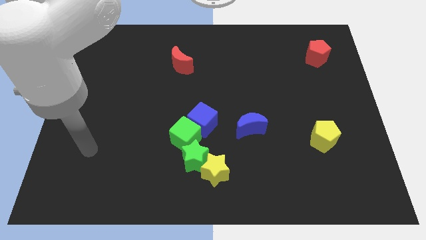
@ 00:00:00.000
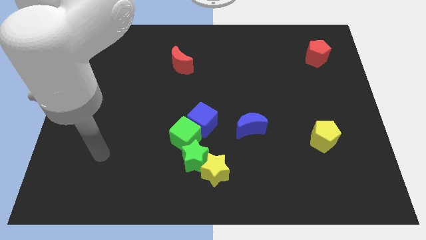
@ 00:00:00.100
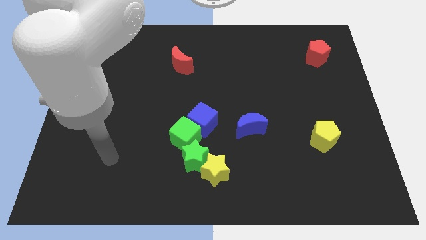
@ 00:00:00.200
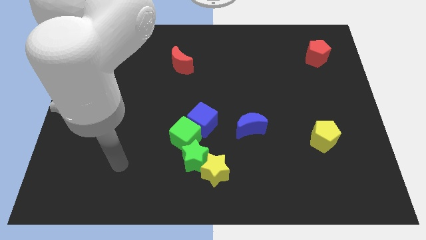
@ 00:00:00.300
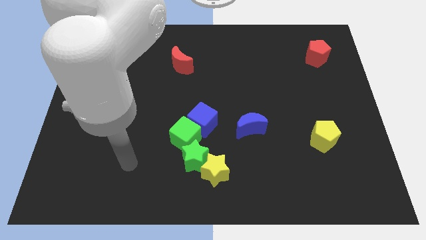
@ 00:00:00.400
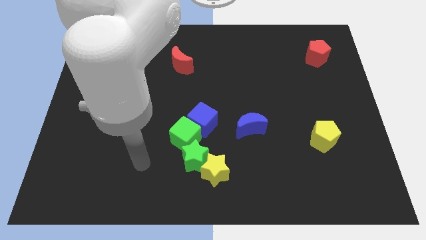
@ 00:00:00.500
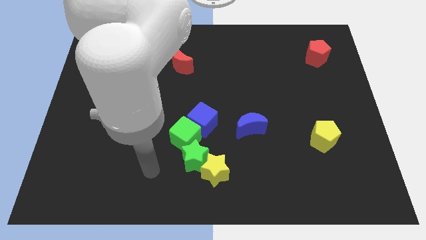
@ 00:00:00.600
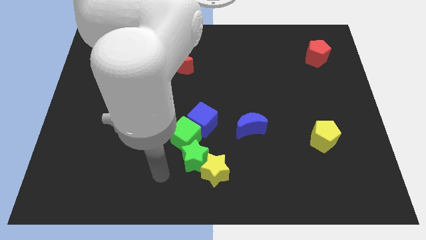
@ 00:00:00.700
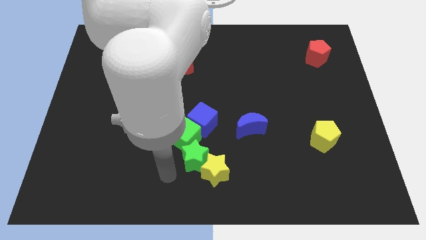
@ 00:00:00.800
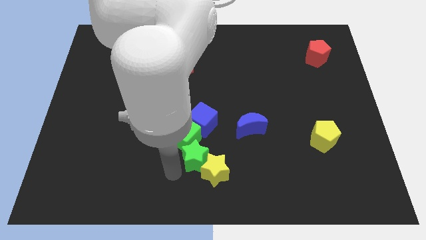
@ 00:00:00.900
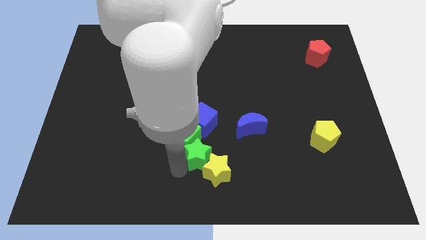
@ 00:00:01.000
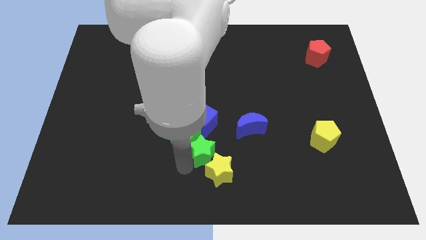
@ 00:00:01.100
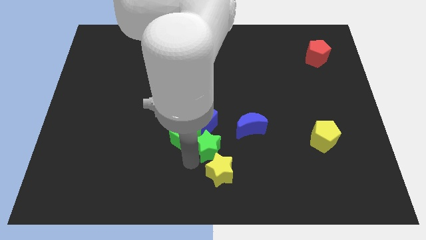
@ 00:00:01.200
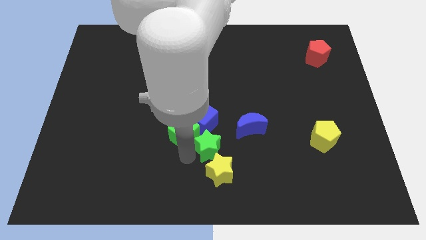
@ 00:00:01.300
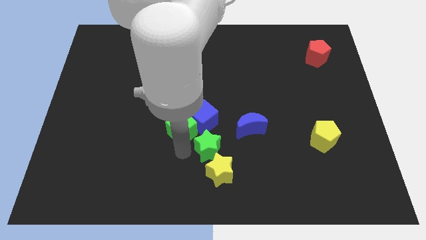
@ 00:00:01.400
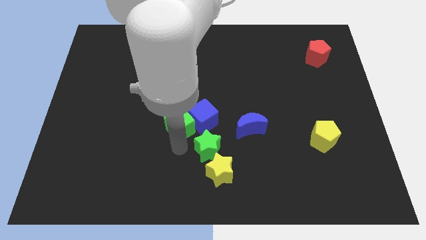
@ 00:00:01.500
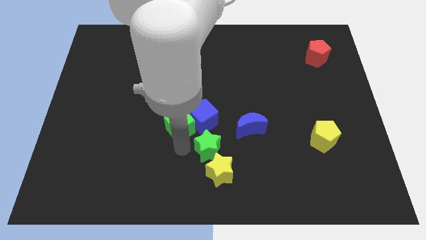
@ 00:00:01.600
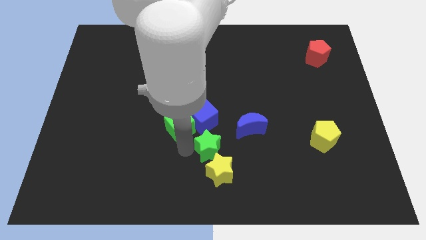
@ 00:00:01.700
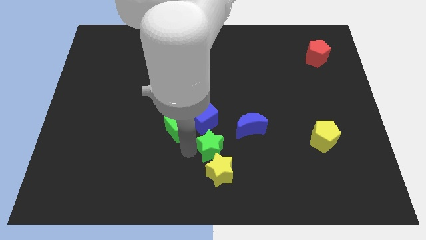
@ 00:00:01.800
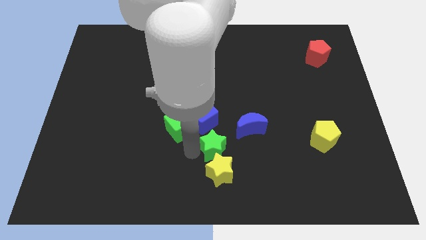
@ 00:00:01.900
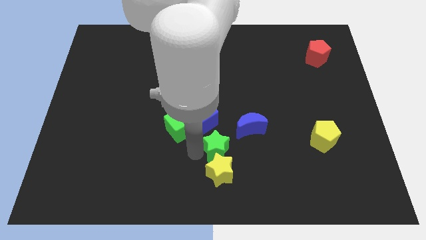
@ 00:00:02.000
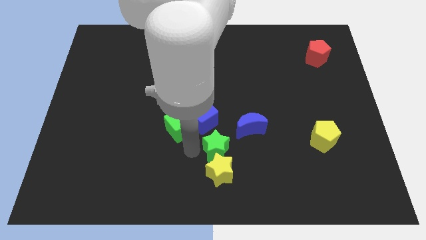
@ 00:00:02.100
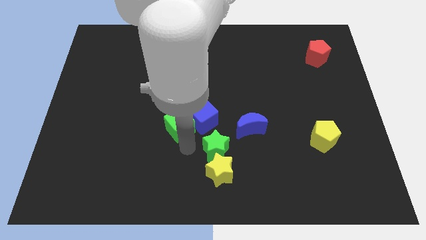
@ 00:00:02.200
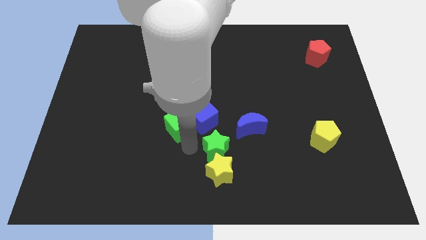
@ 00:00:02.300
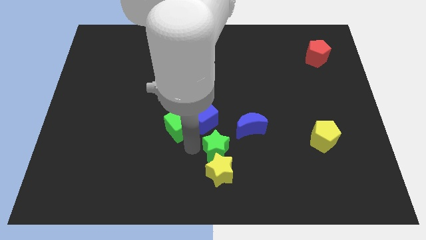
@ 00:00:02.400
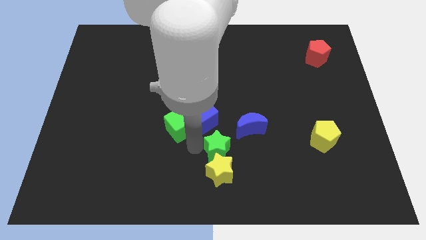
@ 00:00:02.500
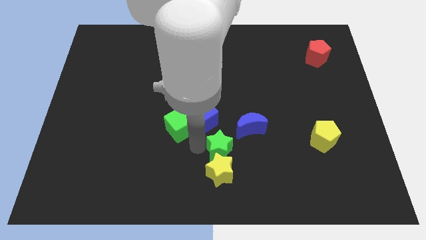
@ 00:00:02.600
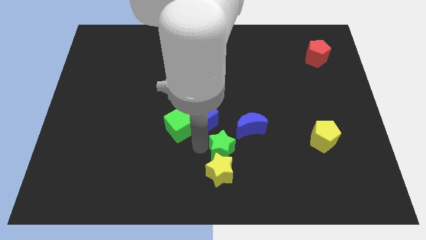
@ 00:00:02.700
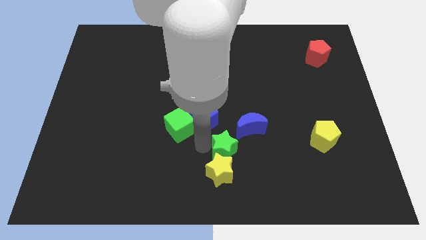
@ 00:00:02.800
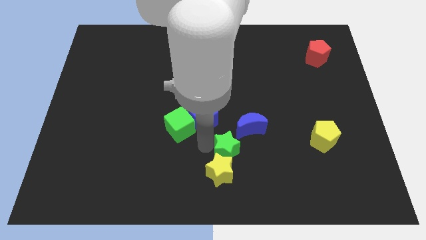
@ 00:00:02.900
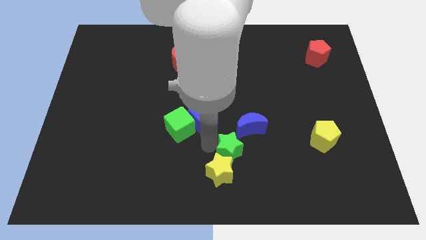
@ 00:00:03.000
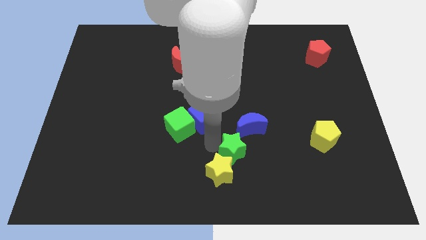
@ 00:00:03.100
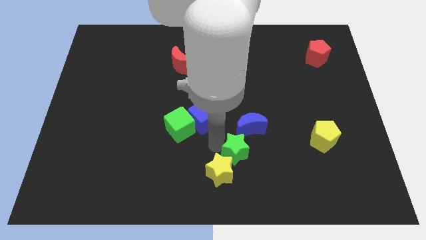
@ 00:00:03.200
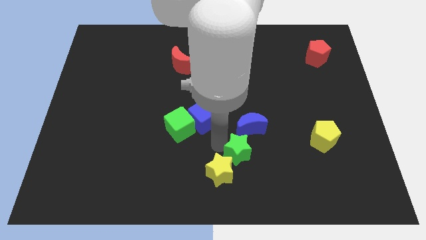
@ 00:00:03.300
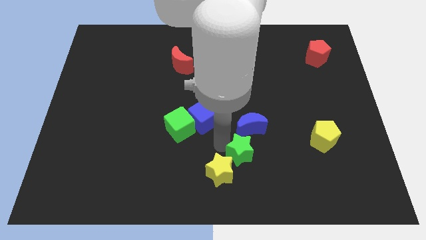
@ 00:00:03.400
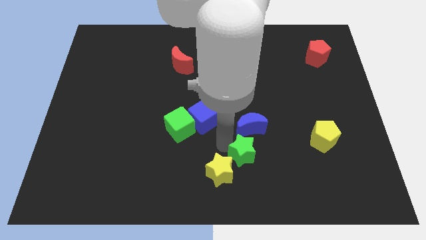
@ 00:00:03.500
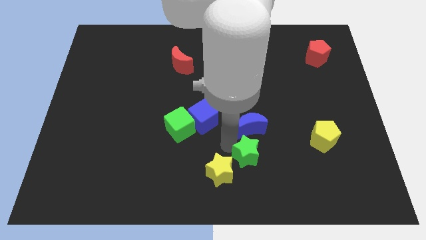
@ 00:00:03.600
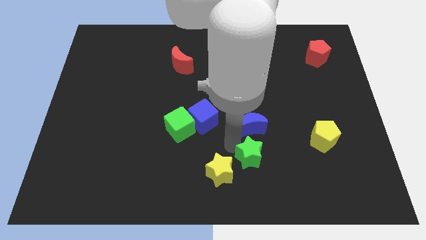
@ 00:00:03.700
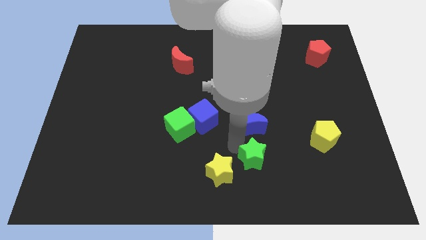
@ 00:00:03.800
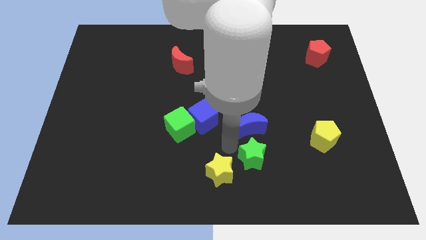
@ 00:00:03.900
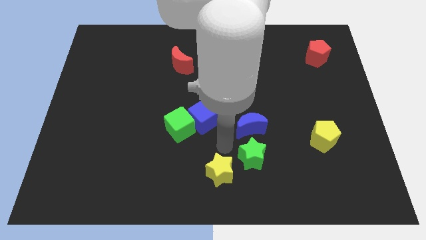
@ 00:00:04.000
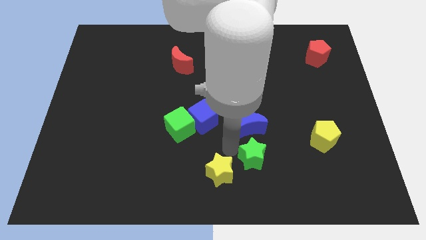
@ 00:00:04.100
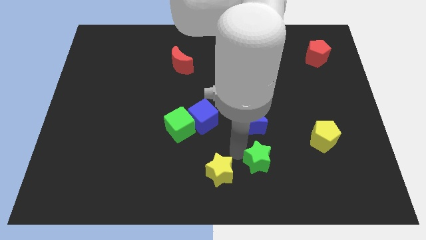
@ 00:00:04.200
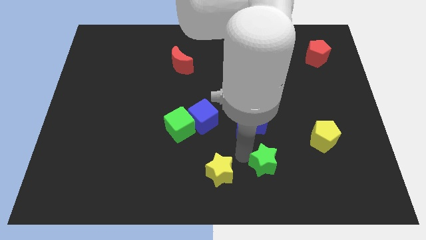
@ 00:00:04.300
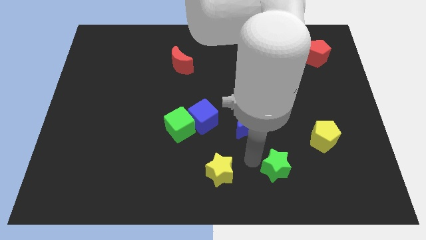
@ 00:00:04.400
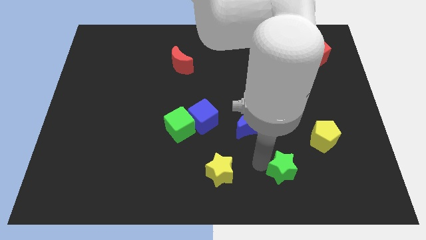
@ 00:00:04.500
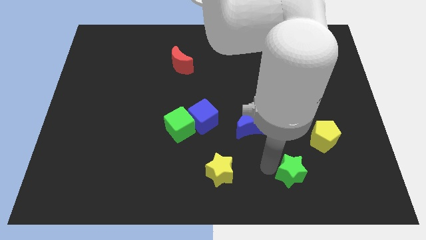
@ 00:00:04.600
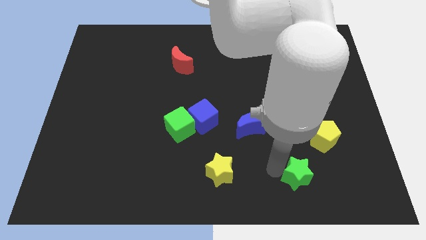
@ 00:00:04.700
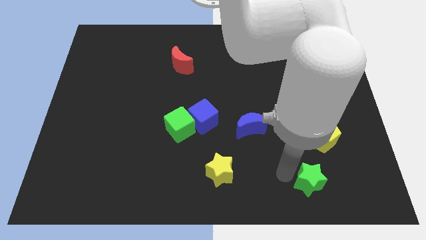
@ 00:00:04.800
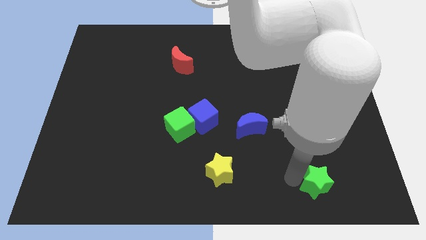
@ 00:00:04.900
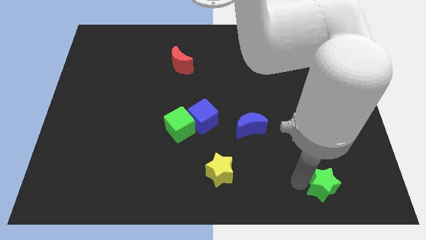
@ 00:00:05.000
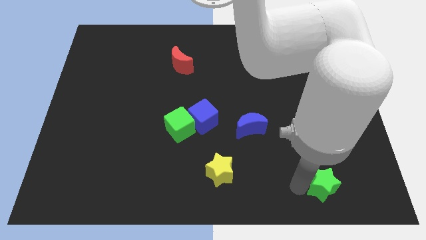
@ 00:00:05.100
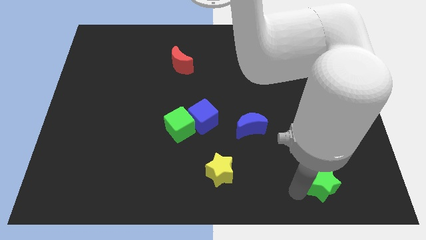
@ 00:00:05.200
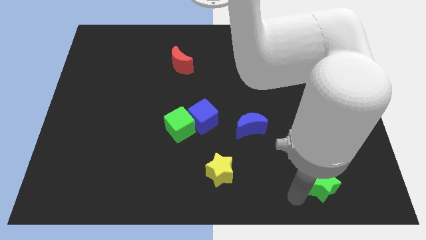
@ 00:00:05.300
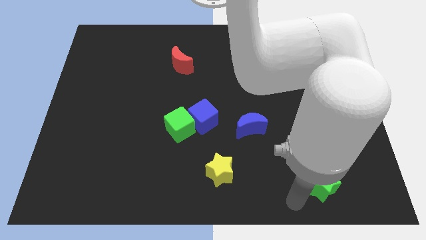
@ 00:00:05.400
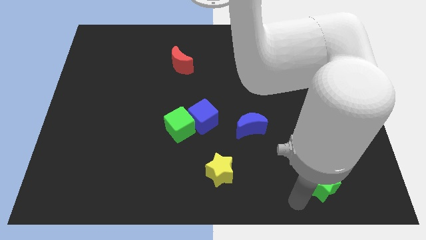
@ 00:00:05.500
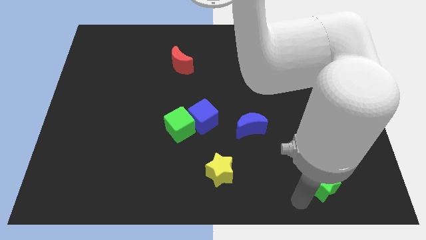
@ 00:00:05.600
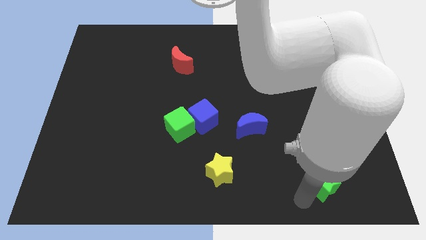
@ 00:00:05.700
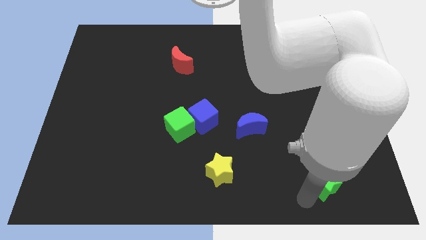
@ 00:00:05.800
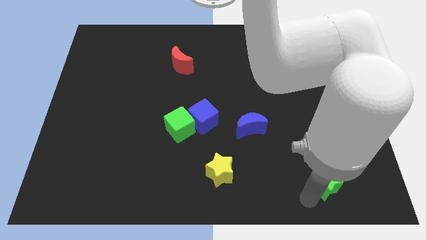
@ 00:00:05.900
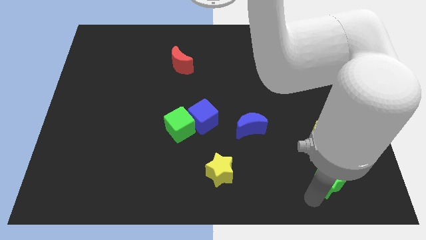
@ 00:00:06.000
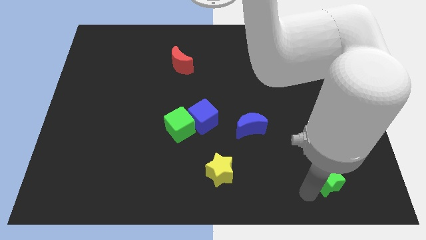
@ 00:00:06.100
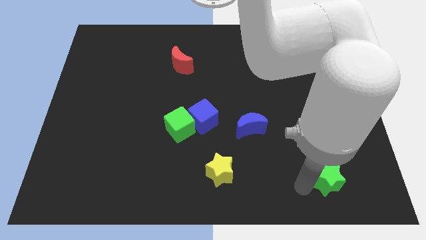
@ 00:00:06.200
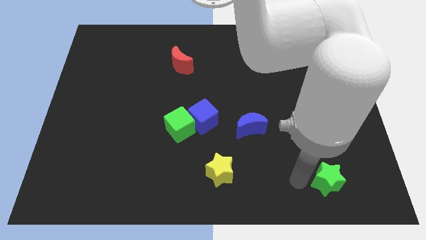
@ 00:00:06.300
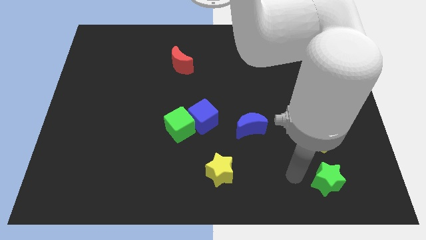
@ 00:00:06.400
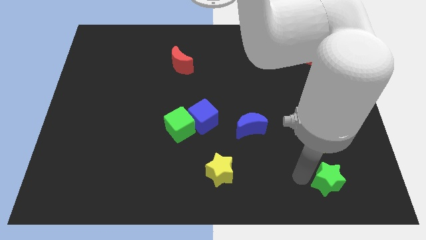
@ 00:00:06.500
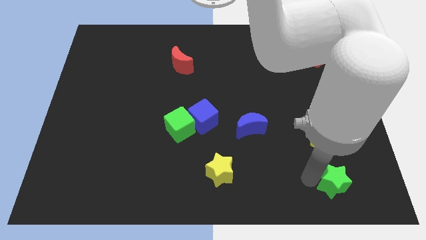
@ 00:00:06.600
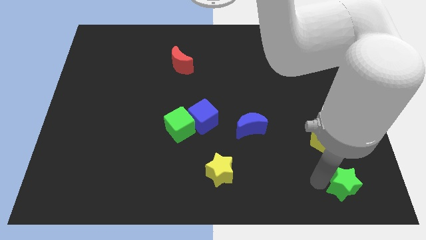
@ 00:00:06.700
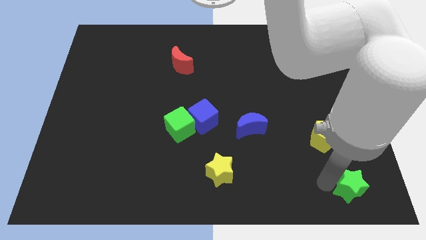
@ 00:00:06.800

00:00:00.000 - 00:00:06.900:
move the green star to the bottom right corner
